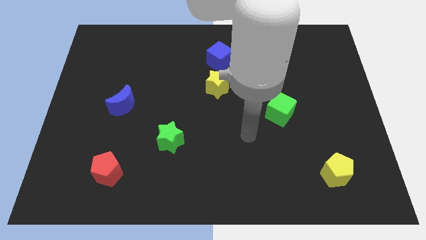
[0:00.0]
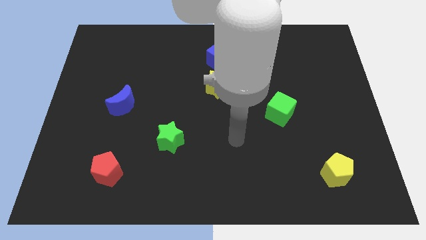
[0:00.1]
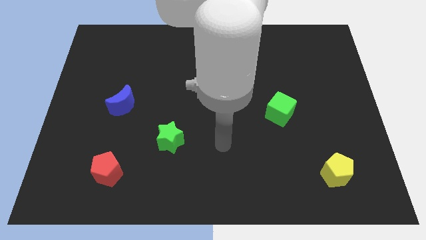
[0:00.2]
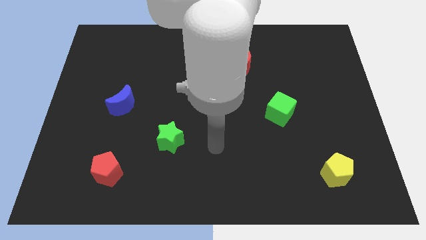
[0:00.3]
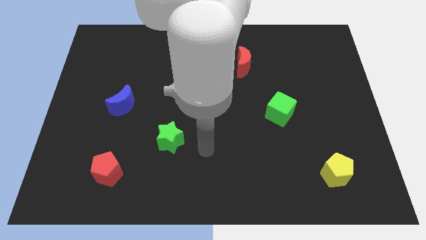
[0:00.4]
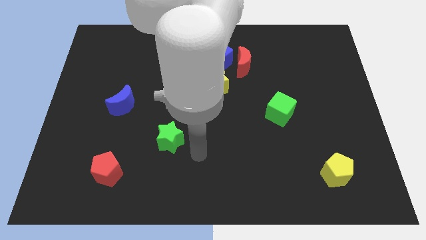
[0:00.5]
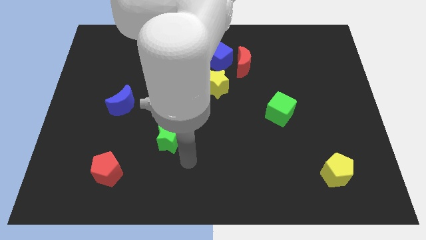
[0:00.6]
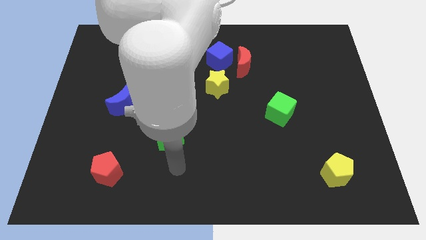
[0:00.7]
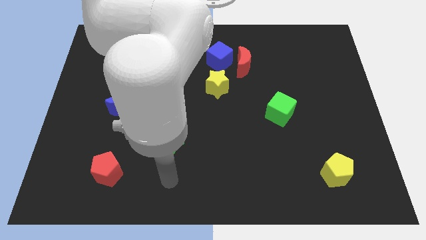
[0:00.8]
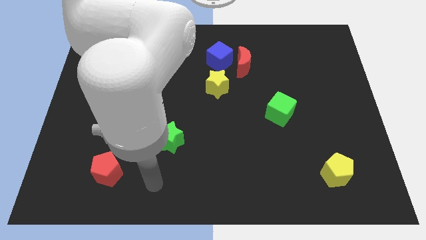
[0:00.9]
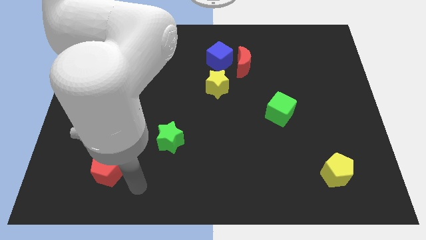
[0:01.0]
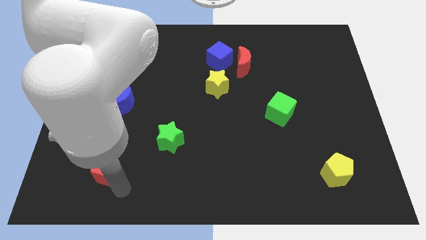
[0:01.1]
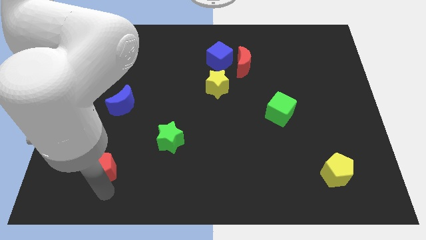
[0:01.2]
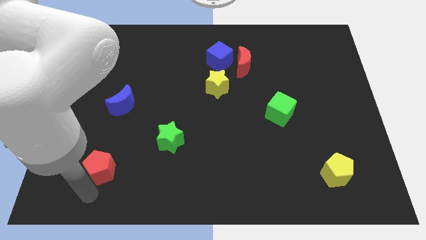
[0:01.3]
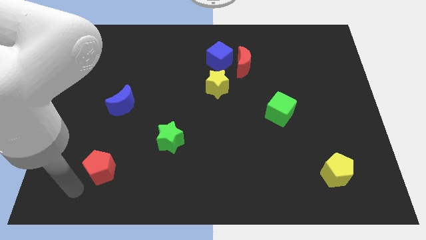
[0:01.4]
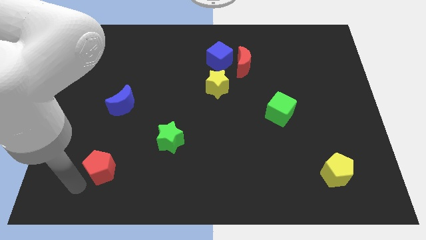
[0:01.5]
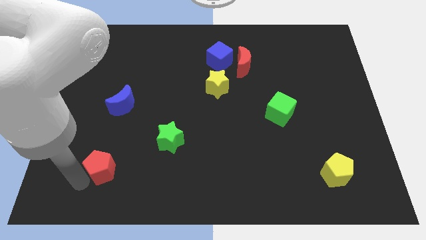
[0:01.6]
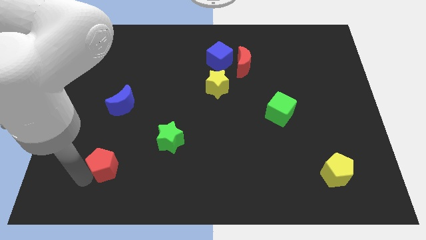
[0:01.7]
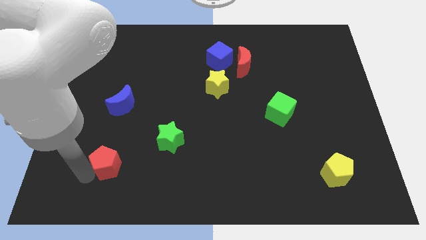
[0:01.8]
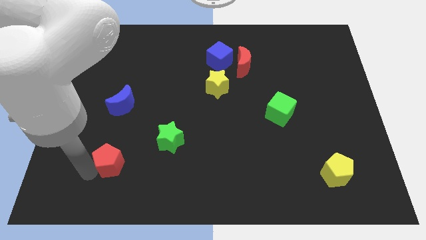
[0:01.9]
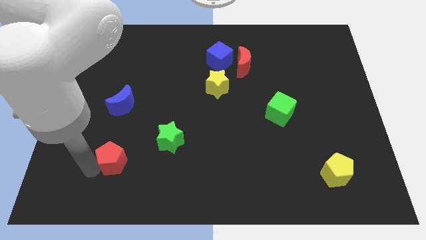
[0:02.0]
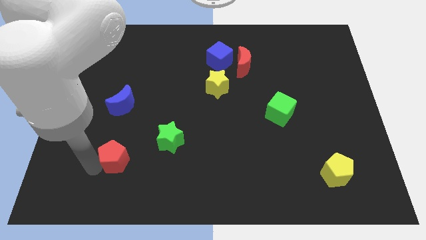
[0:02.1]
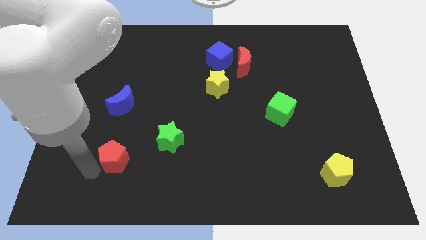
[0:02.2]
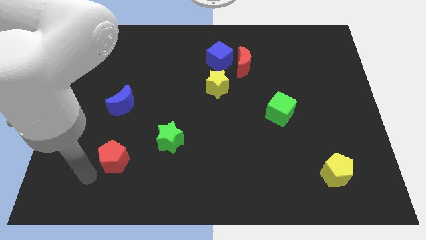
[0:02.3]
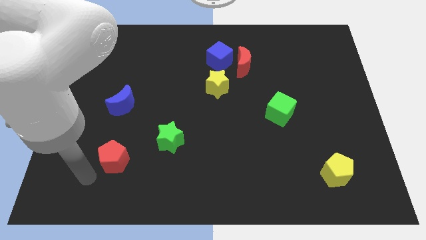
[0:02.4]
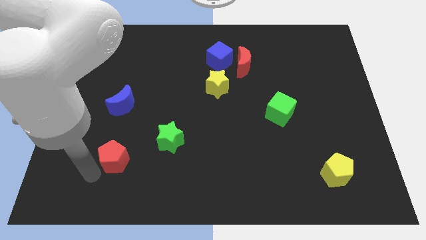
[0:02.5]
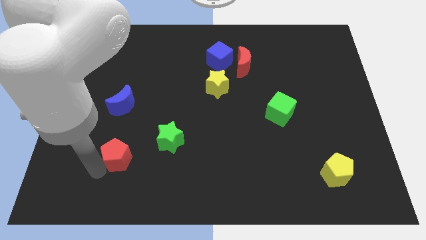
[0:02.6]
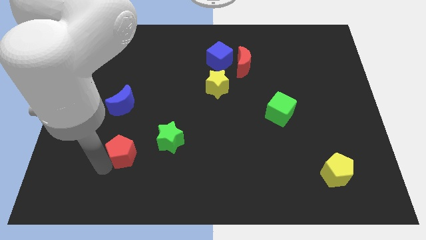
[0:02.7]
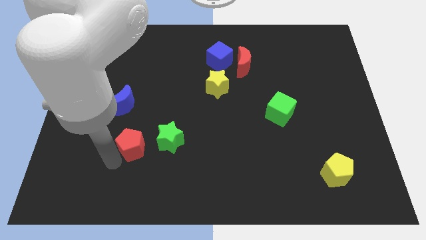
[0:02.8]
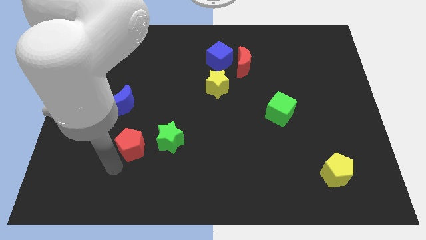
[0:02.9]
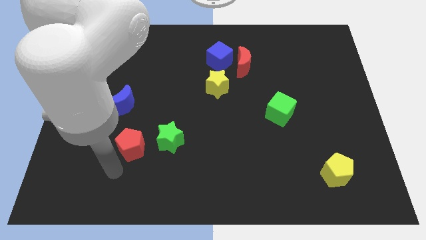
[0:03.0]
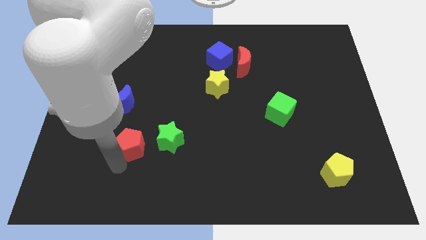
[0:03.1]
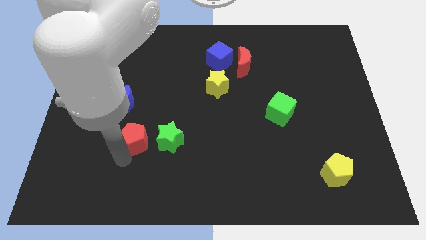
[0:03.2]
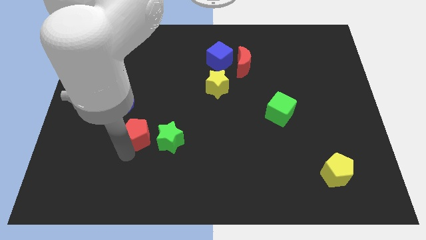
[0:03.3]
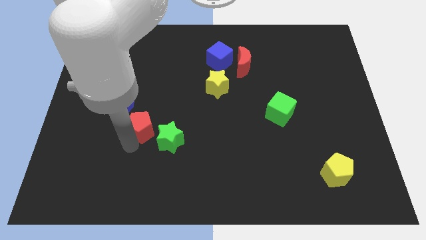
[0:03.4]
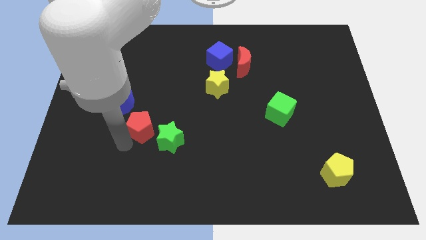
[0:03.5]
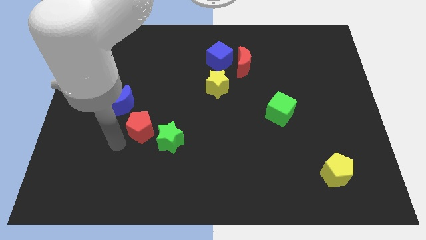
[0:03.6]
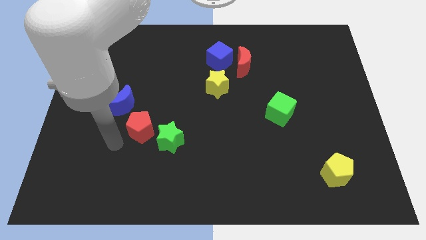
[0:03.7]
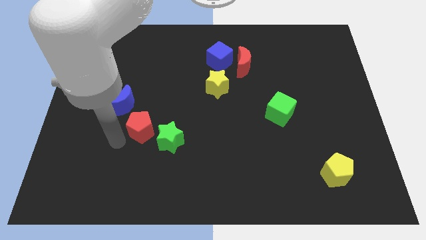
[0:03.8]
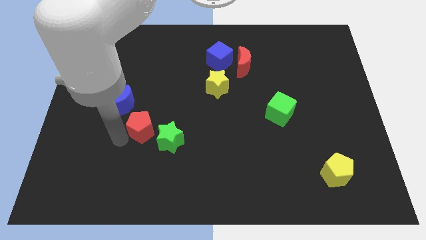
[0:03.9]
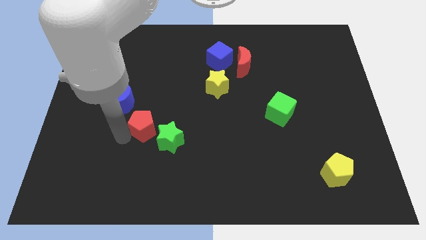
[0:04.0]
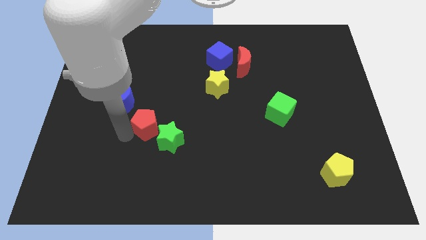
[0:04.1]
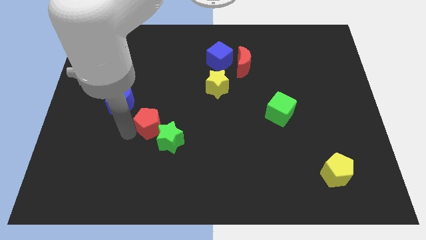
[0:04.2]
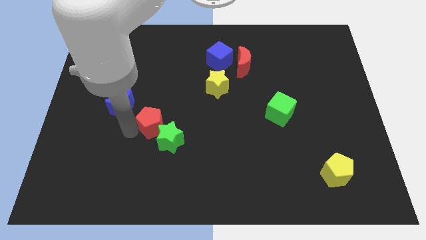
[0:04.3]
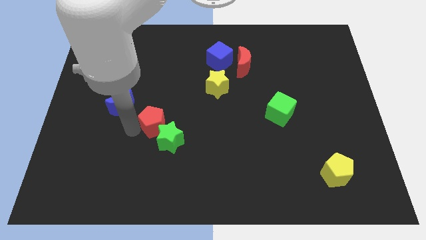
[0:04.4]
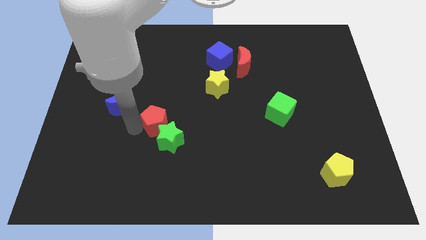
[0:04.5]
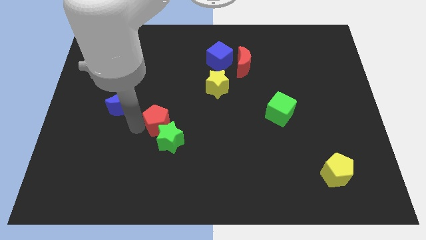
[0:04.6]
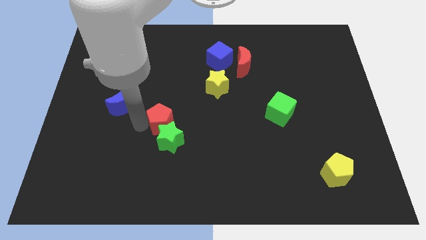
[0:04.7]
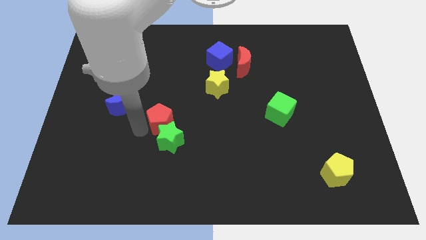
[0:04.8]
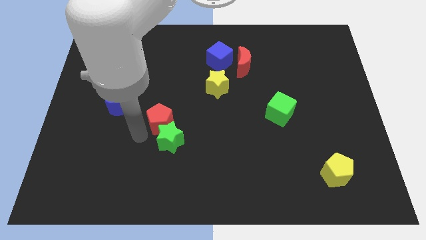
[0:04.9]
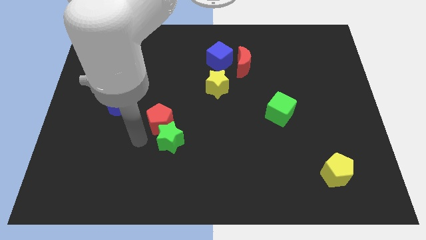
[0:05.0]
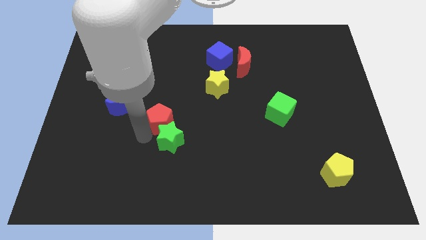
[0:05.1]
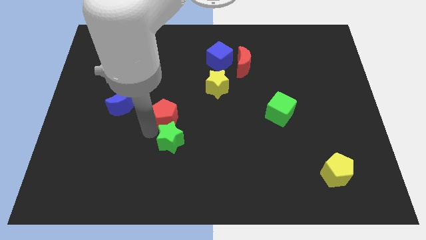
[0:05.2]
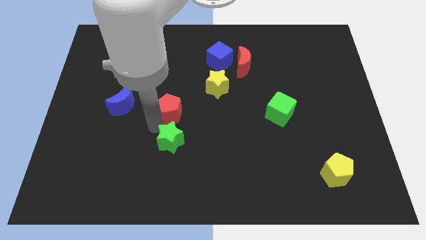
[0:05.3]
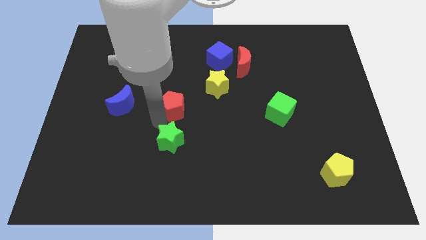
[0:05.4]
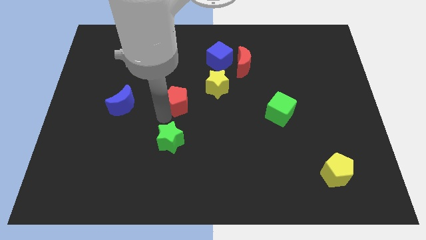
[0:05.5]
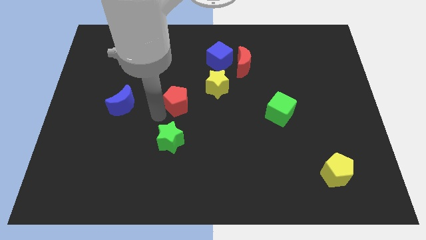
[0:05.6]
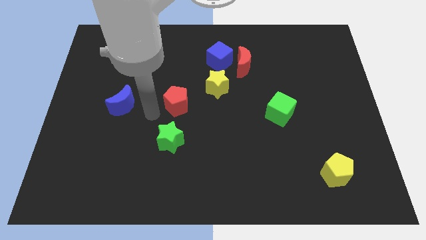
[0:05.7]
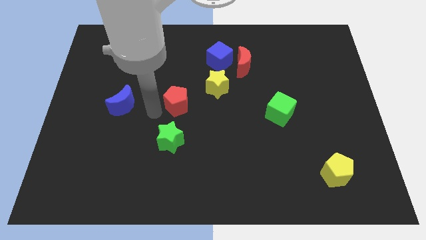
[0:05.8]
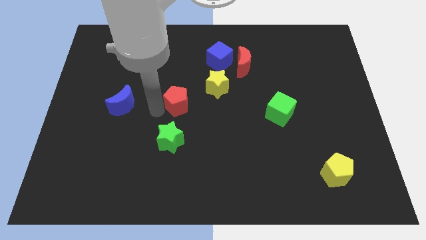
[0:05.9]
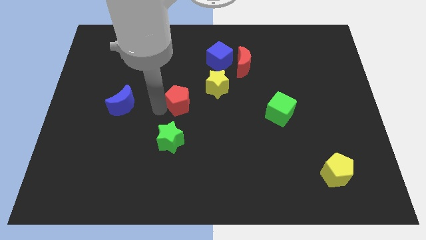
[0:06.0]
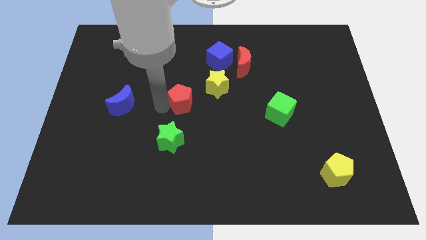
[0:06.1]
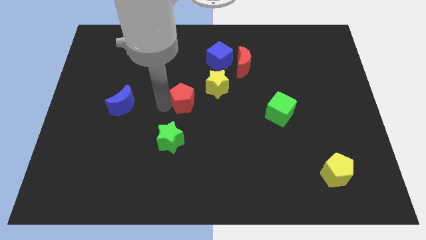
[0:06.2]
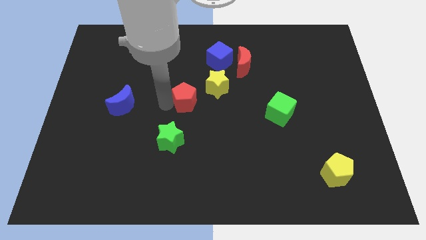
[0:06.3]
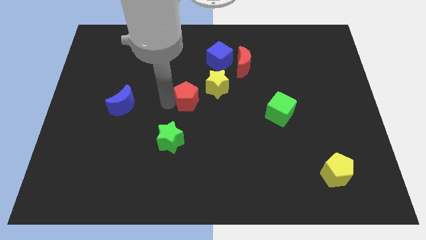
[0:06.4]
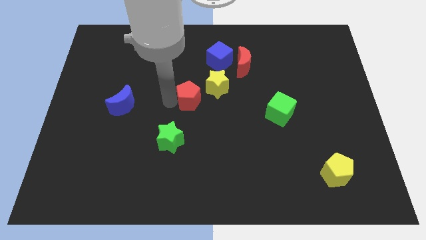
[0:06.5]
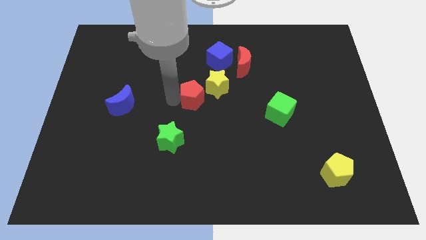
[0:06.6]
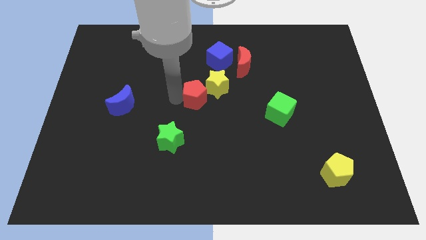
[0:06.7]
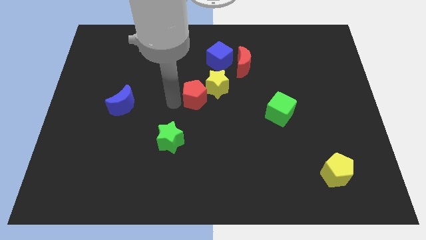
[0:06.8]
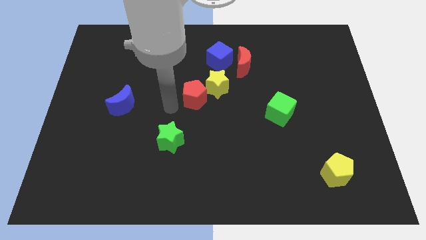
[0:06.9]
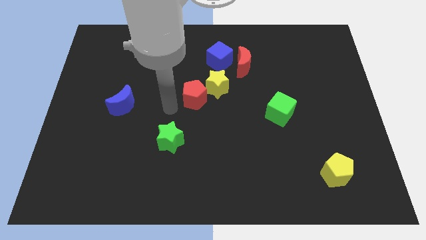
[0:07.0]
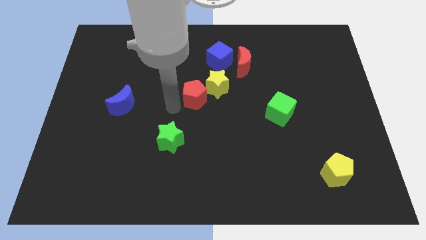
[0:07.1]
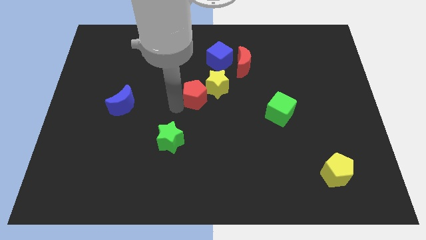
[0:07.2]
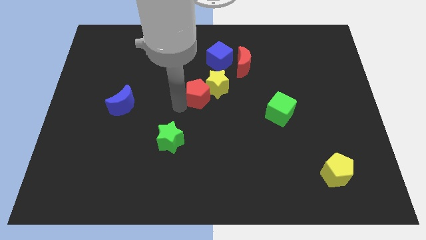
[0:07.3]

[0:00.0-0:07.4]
slide the red pentagon towards the yellow star
